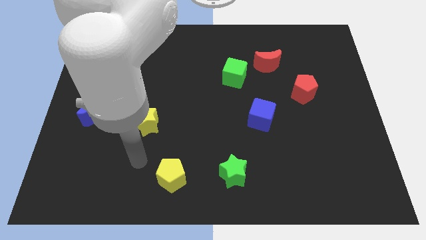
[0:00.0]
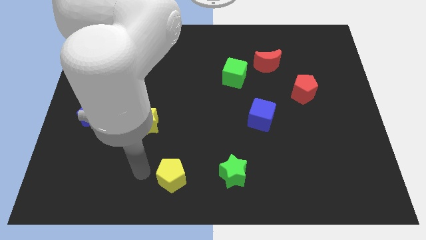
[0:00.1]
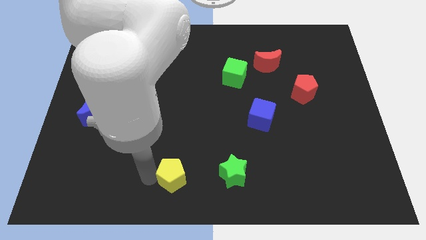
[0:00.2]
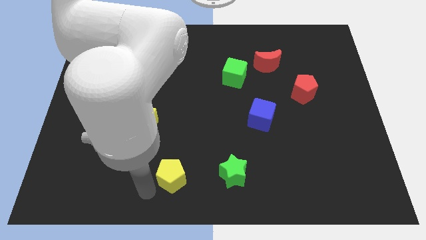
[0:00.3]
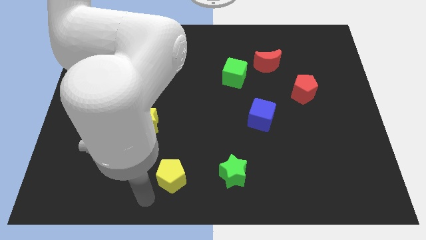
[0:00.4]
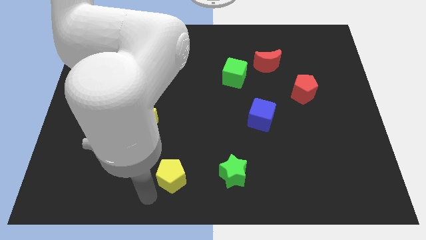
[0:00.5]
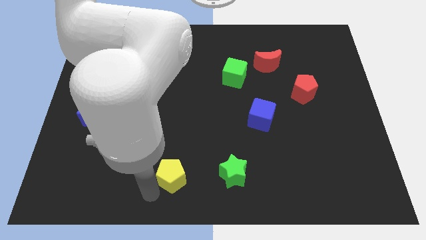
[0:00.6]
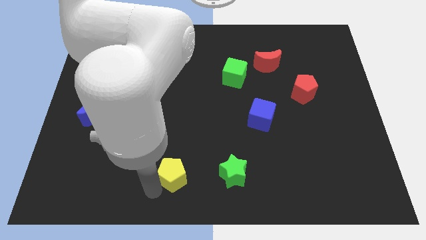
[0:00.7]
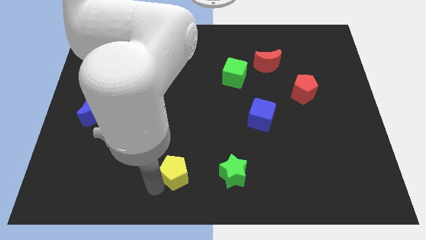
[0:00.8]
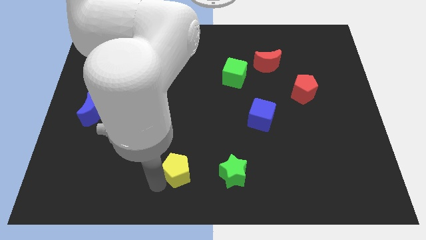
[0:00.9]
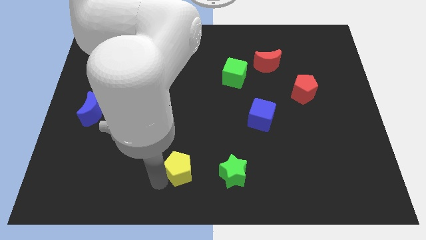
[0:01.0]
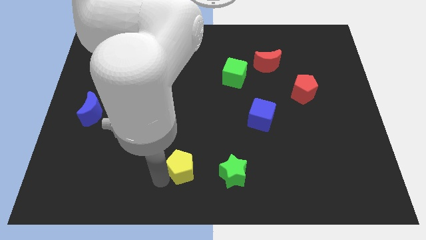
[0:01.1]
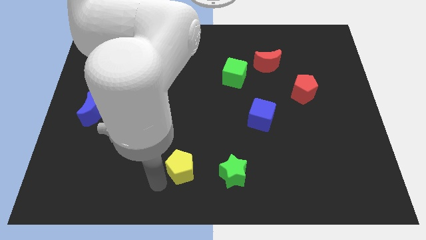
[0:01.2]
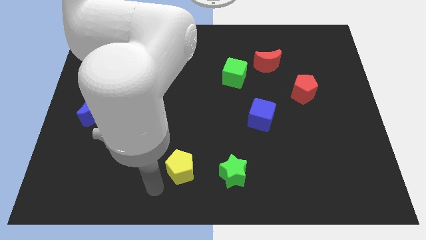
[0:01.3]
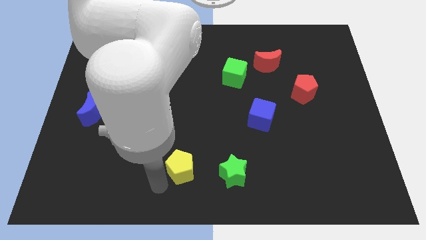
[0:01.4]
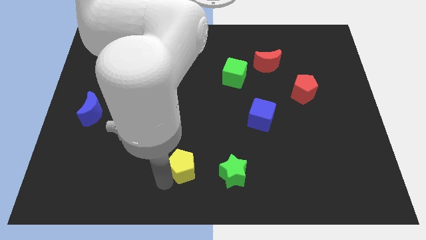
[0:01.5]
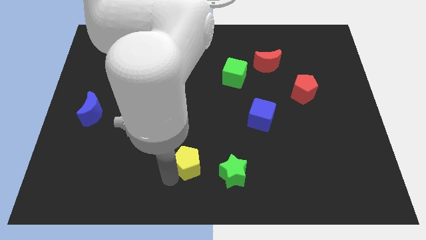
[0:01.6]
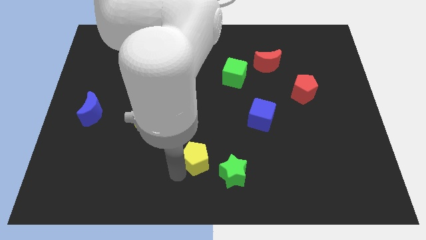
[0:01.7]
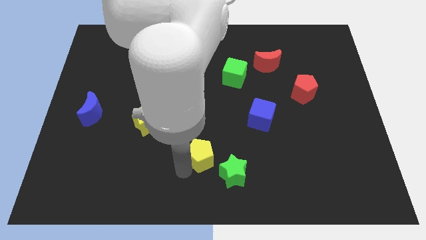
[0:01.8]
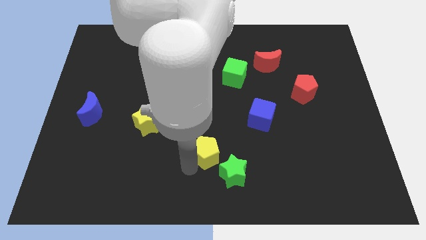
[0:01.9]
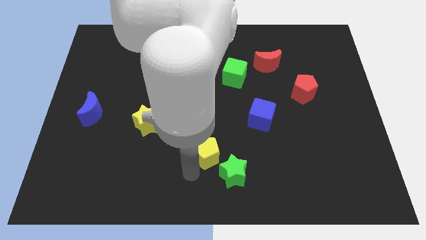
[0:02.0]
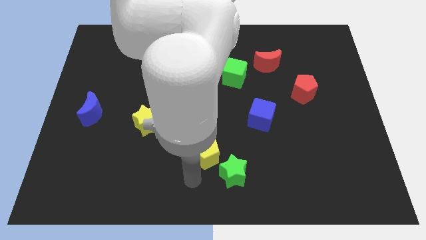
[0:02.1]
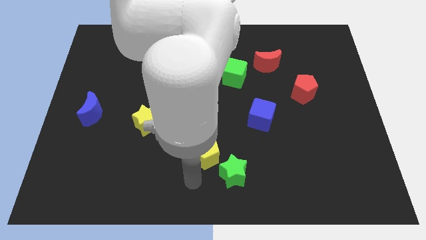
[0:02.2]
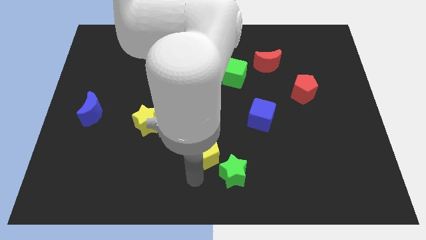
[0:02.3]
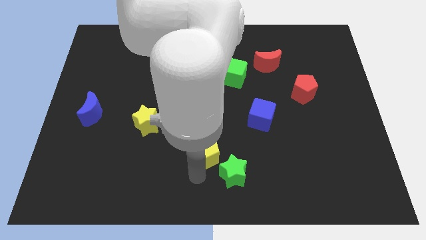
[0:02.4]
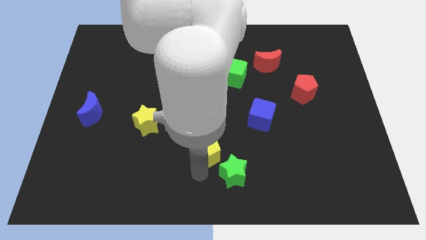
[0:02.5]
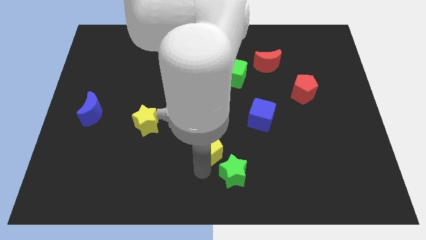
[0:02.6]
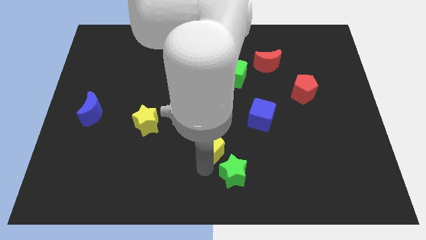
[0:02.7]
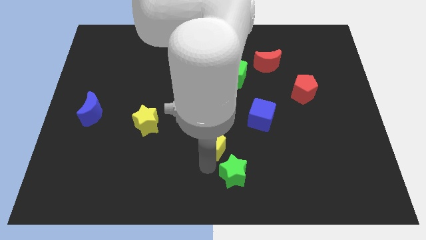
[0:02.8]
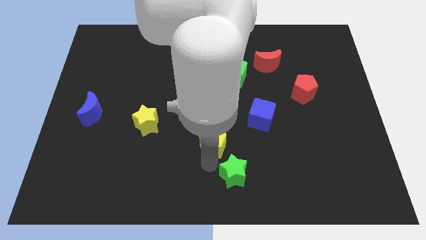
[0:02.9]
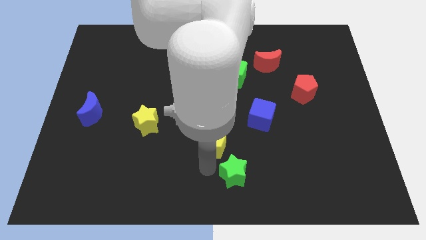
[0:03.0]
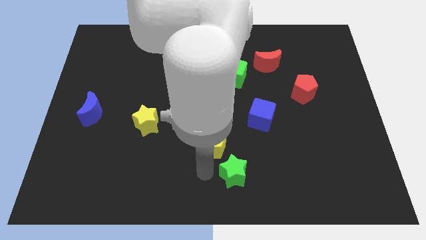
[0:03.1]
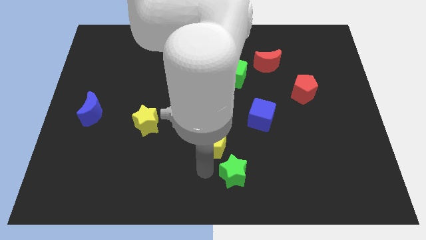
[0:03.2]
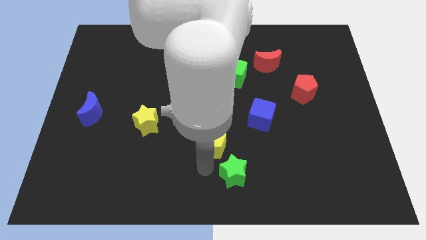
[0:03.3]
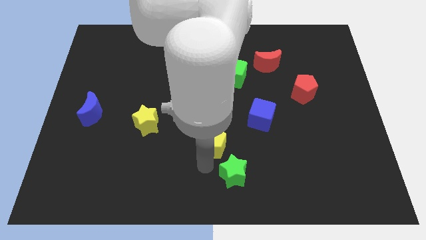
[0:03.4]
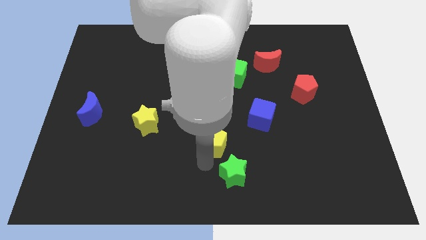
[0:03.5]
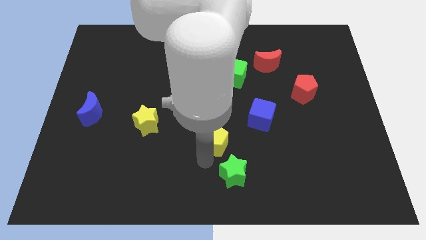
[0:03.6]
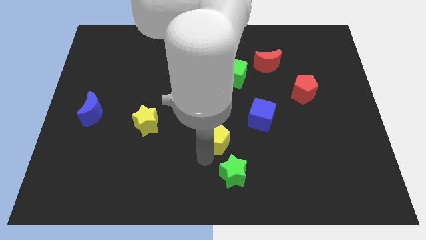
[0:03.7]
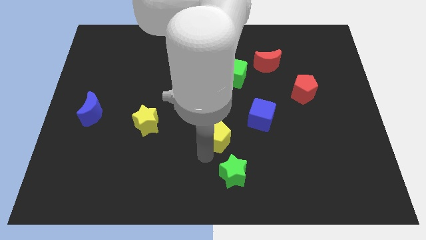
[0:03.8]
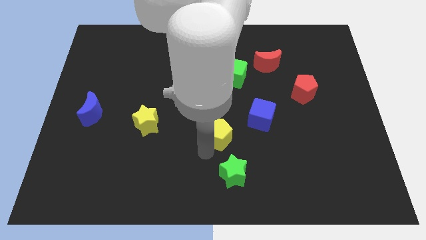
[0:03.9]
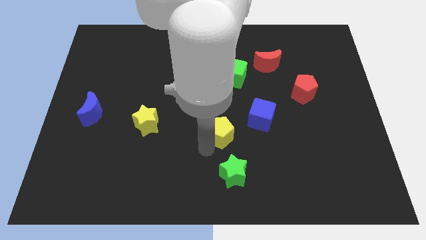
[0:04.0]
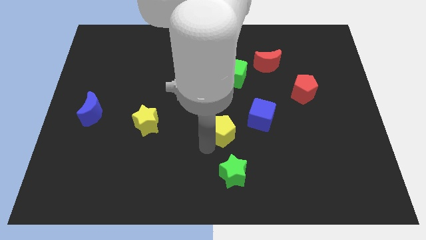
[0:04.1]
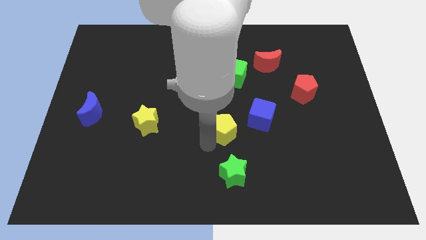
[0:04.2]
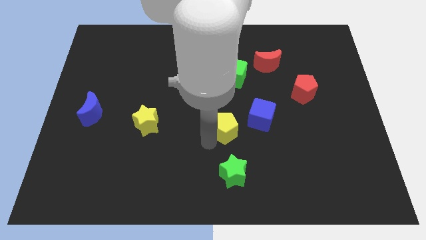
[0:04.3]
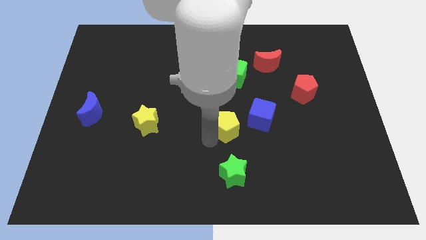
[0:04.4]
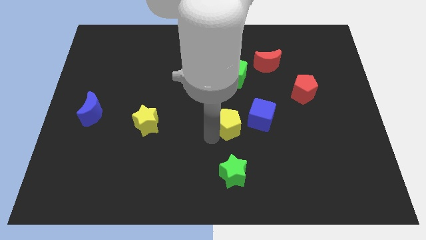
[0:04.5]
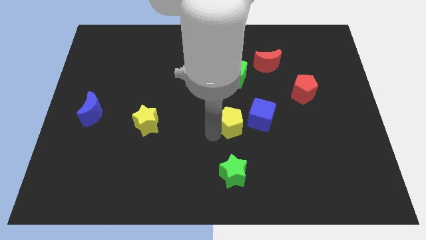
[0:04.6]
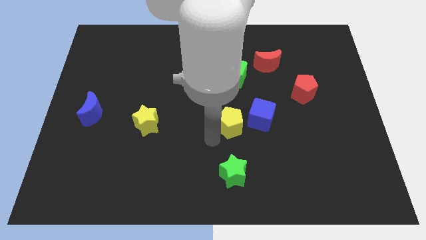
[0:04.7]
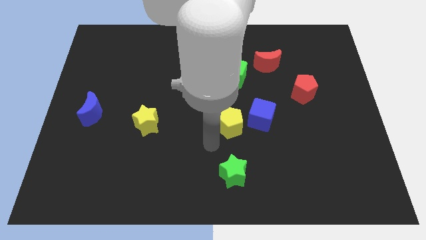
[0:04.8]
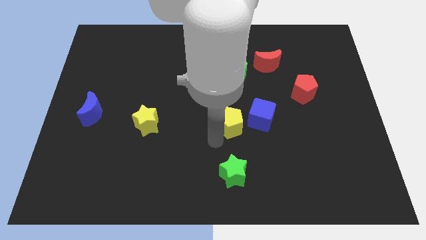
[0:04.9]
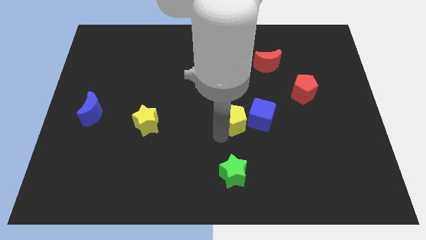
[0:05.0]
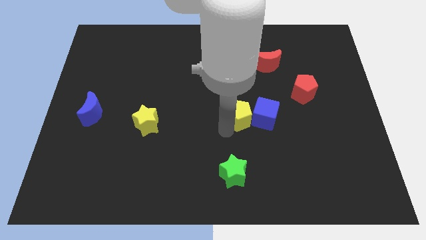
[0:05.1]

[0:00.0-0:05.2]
push the yellow pentagon diagonally up and to the right

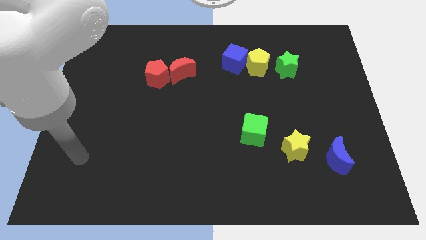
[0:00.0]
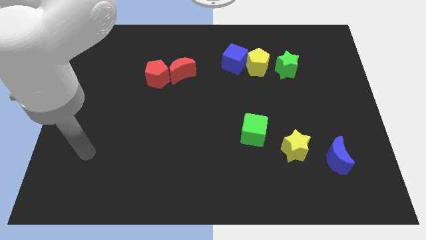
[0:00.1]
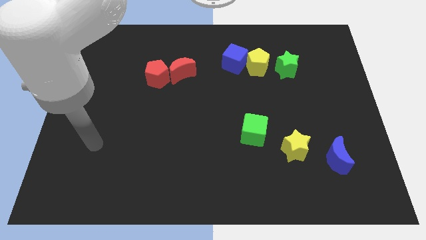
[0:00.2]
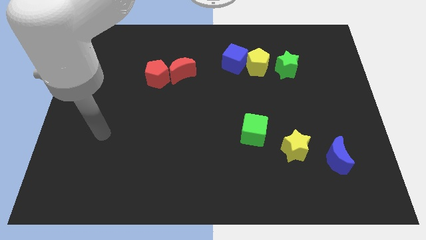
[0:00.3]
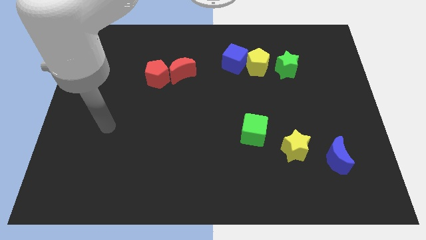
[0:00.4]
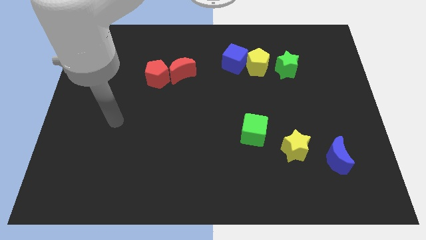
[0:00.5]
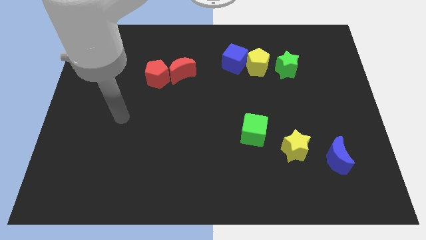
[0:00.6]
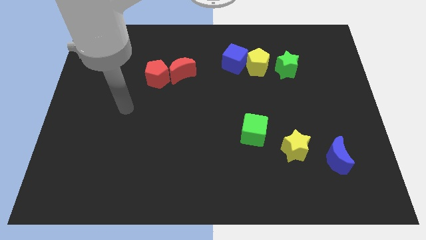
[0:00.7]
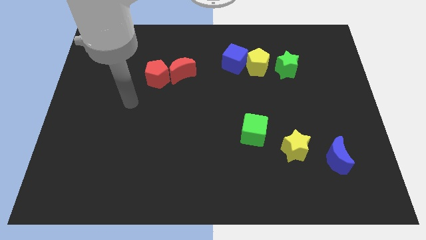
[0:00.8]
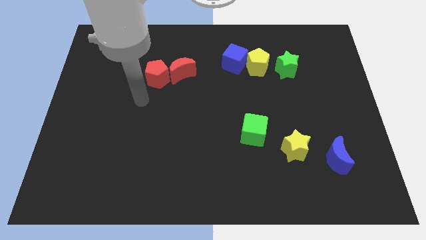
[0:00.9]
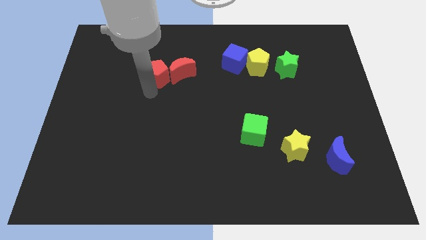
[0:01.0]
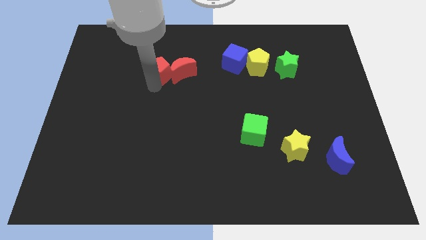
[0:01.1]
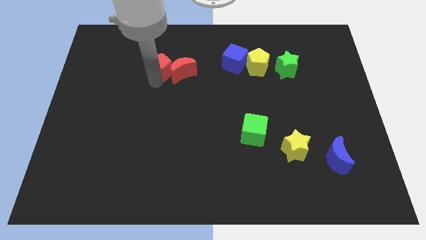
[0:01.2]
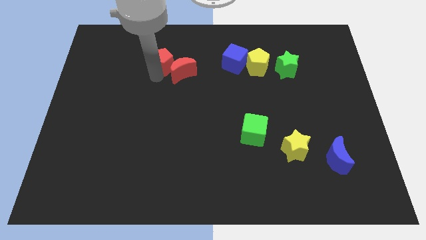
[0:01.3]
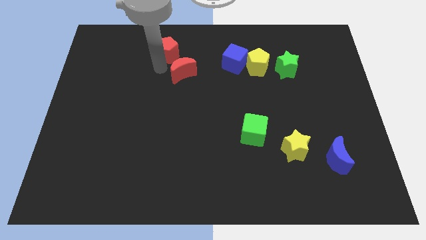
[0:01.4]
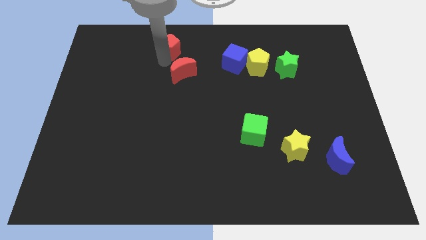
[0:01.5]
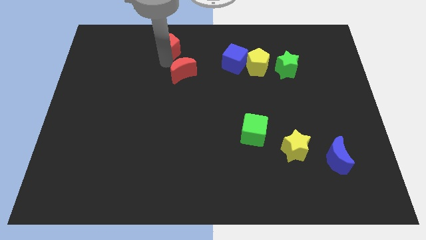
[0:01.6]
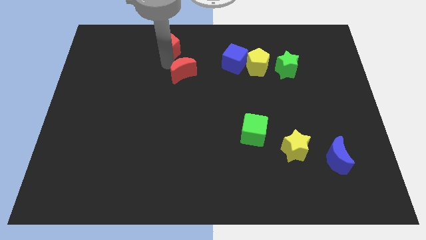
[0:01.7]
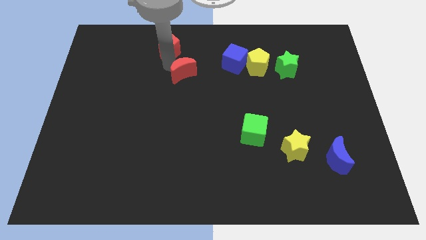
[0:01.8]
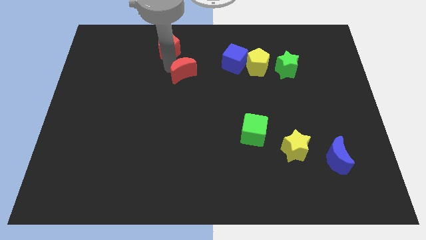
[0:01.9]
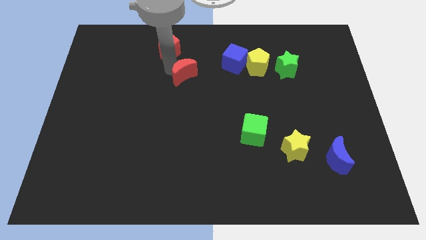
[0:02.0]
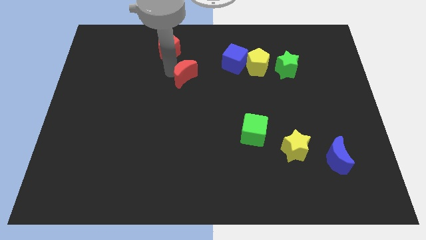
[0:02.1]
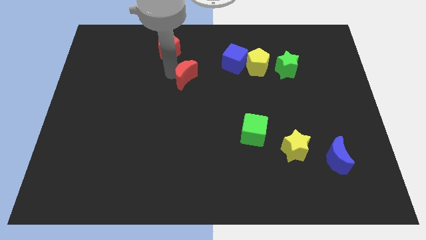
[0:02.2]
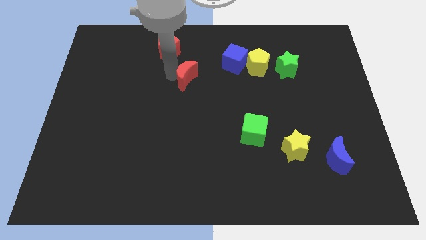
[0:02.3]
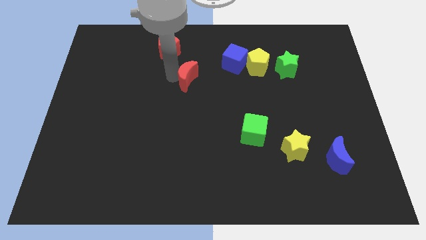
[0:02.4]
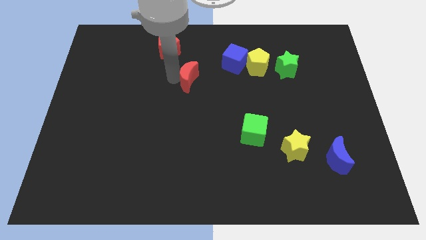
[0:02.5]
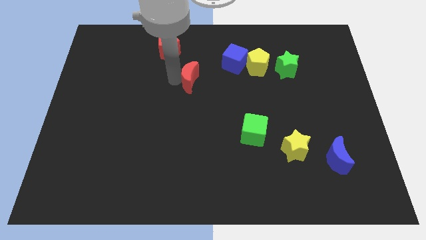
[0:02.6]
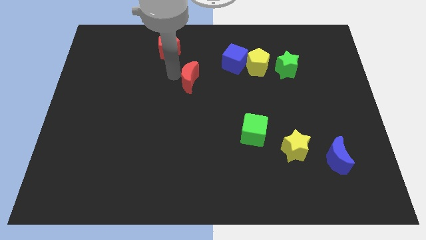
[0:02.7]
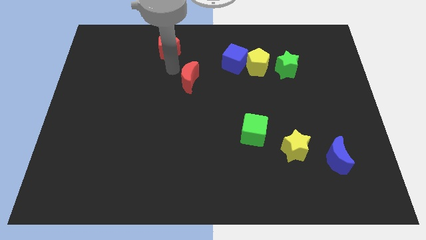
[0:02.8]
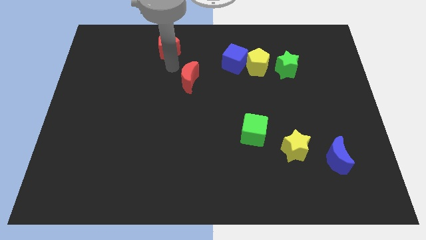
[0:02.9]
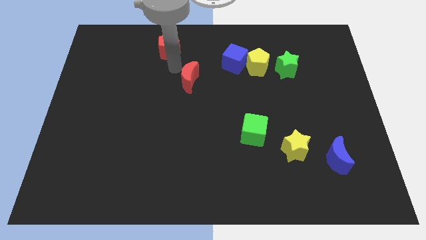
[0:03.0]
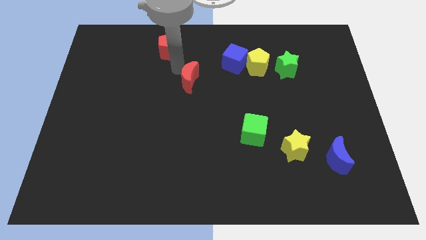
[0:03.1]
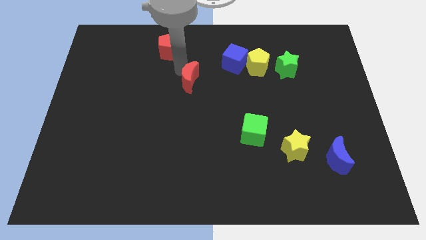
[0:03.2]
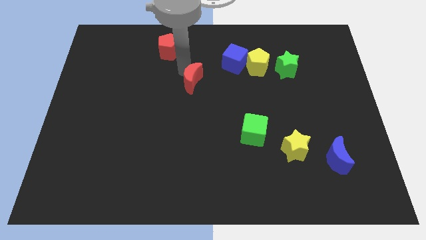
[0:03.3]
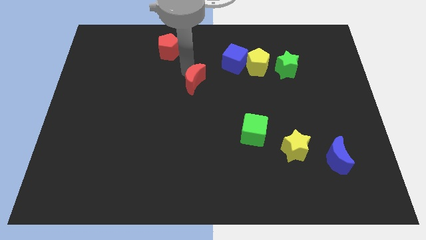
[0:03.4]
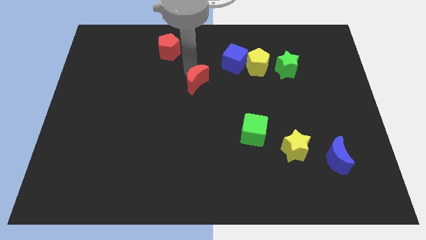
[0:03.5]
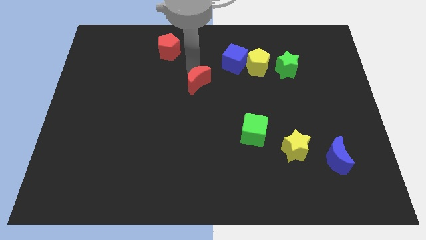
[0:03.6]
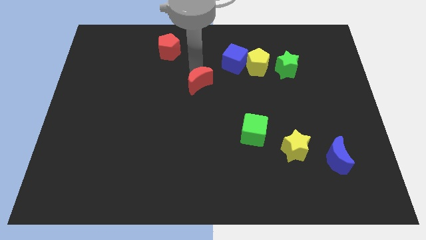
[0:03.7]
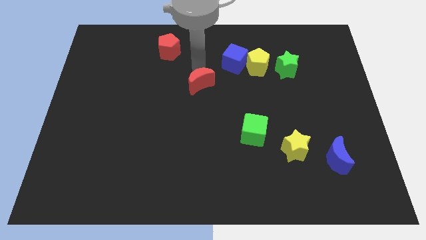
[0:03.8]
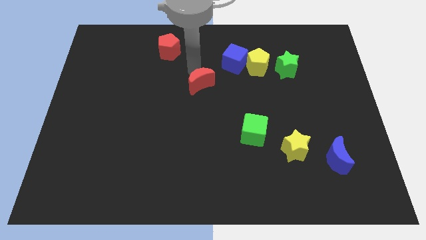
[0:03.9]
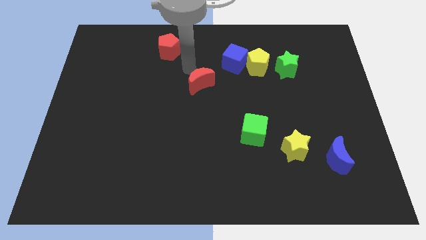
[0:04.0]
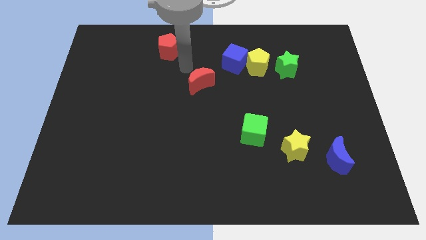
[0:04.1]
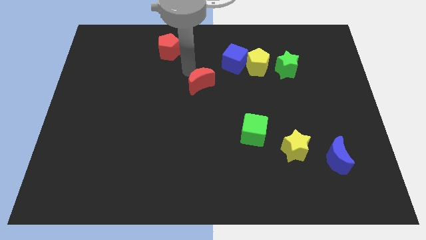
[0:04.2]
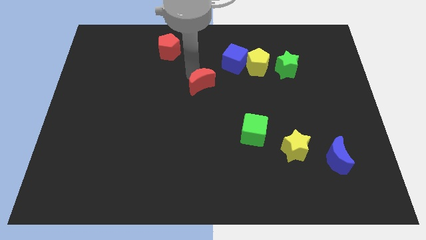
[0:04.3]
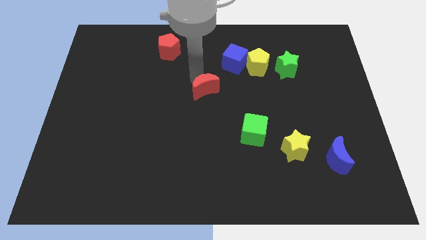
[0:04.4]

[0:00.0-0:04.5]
slightly push the red moon down and to the right
